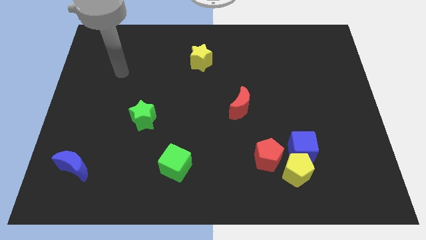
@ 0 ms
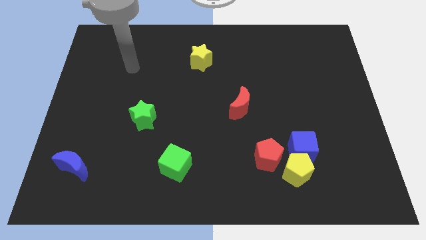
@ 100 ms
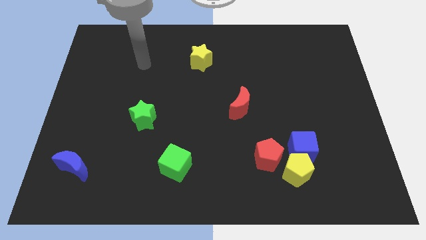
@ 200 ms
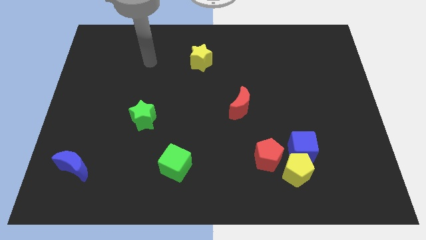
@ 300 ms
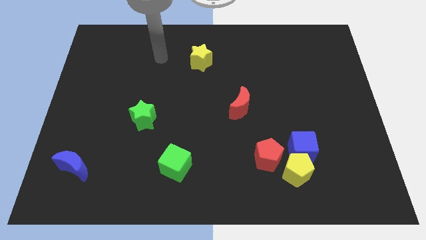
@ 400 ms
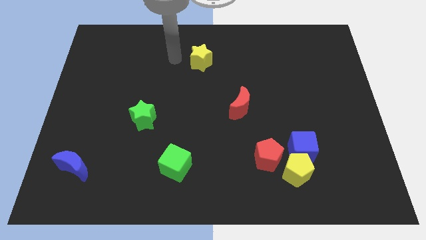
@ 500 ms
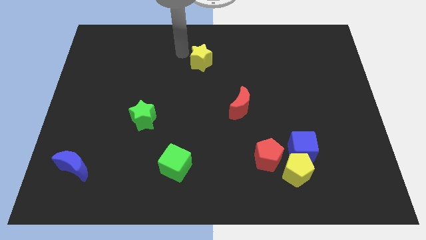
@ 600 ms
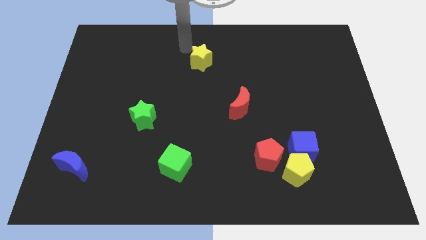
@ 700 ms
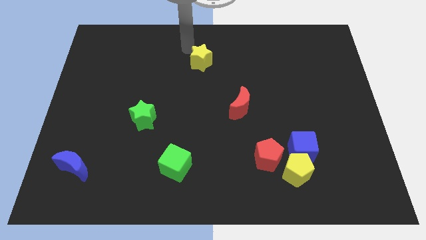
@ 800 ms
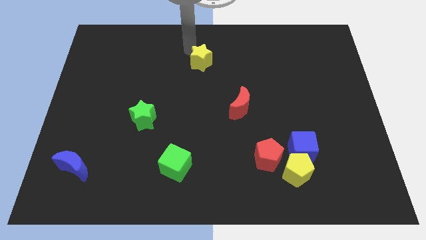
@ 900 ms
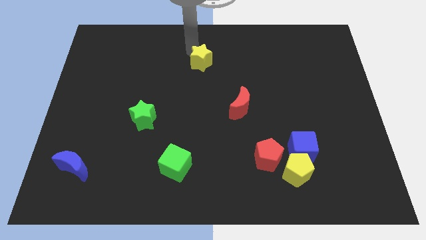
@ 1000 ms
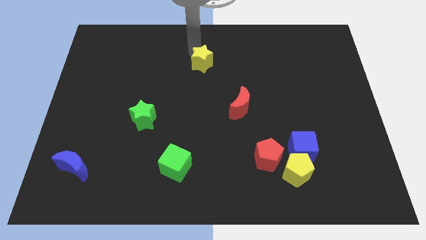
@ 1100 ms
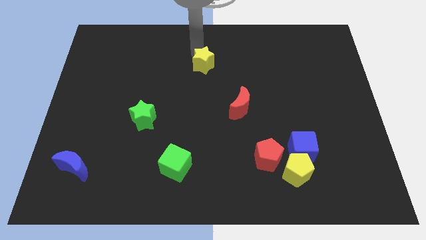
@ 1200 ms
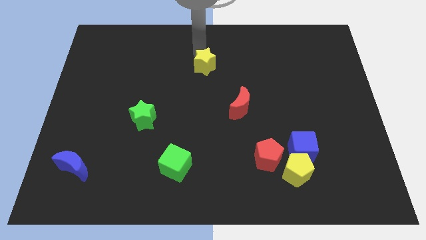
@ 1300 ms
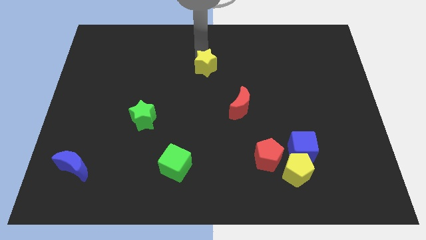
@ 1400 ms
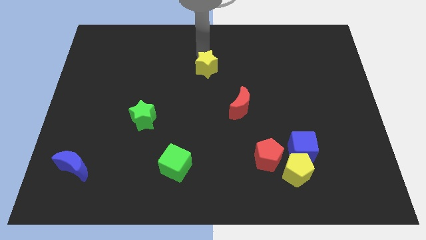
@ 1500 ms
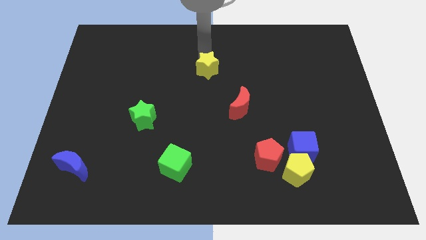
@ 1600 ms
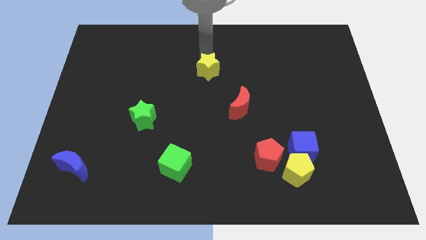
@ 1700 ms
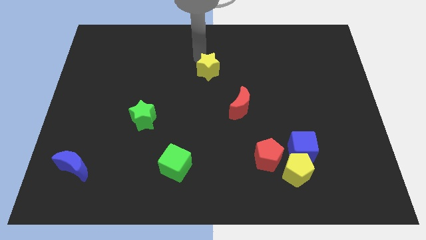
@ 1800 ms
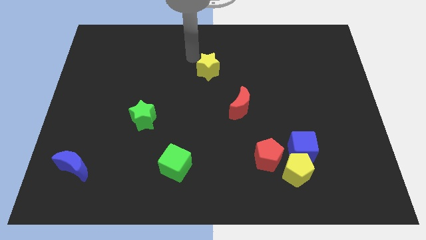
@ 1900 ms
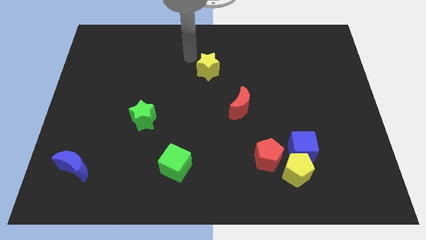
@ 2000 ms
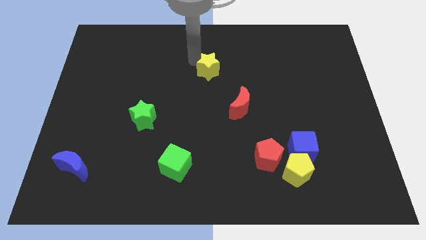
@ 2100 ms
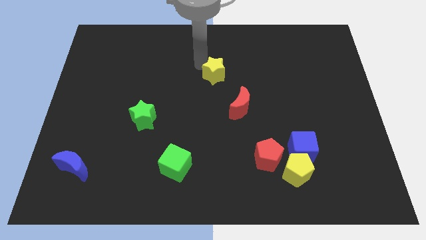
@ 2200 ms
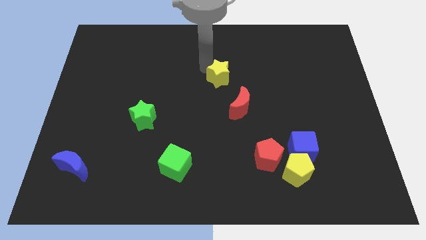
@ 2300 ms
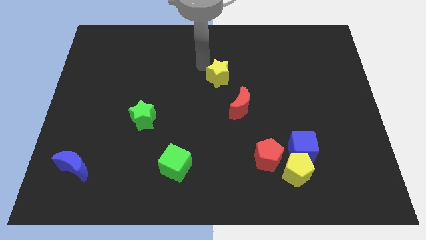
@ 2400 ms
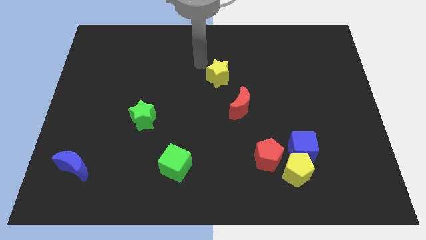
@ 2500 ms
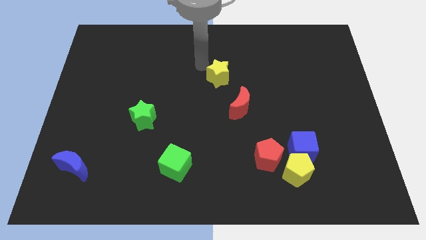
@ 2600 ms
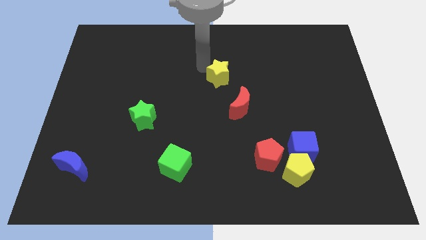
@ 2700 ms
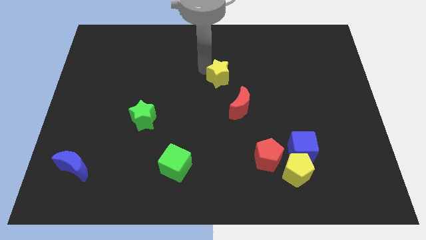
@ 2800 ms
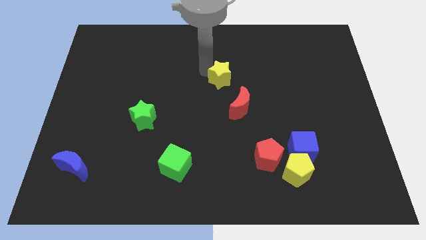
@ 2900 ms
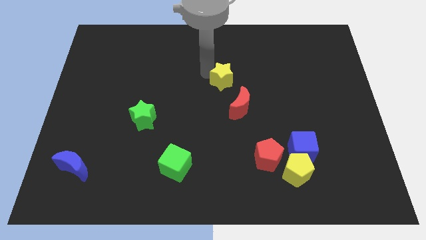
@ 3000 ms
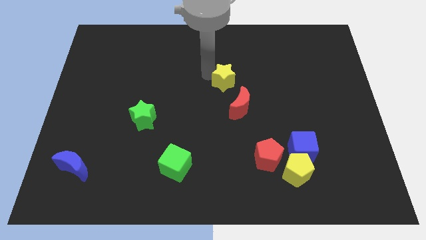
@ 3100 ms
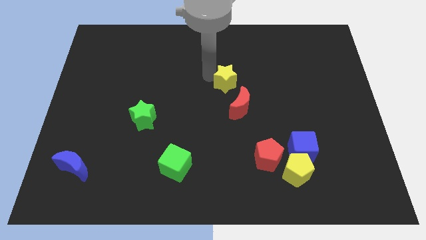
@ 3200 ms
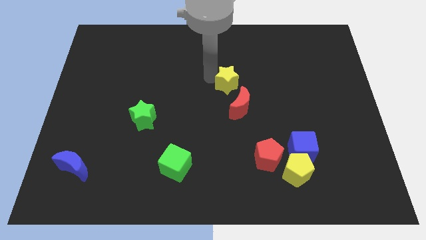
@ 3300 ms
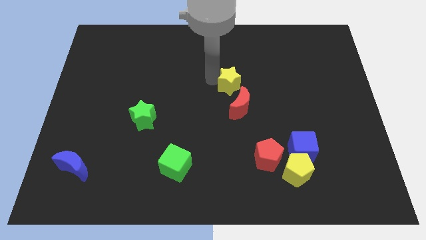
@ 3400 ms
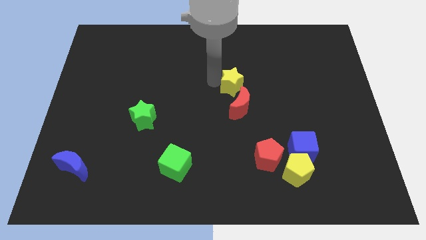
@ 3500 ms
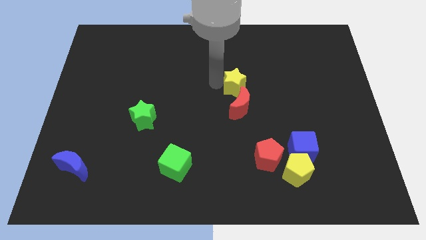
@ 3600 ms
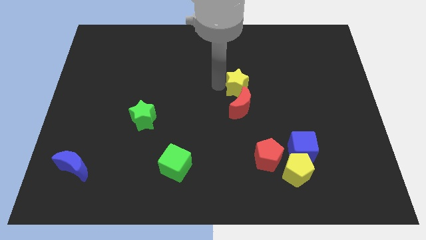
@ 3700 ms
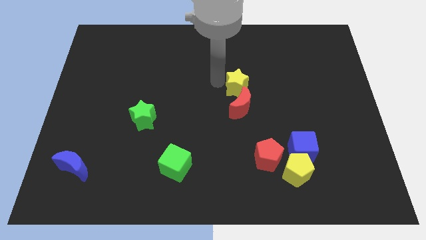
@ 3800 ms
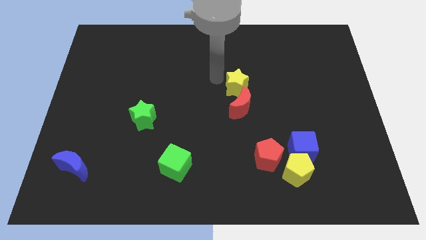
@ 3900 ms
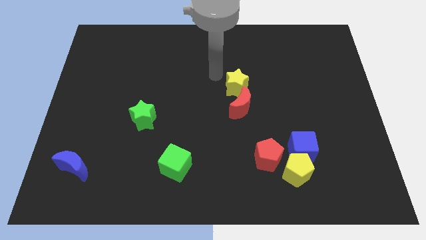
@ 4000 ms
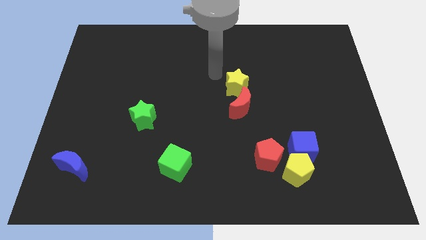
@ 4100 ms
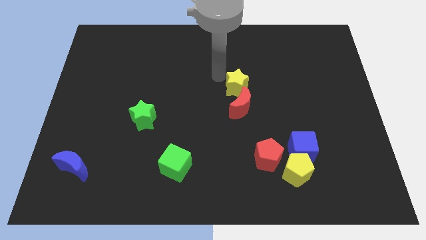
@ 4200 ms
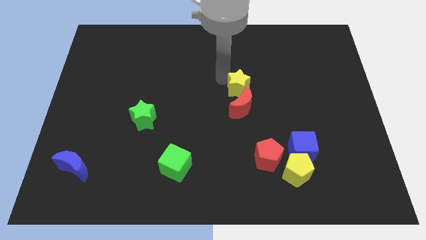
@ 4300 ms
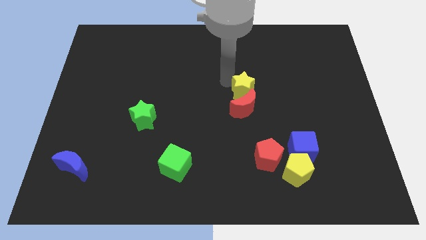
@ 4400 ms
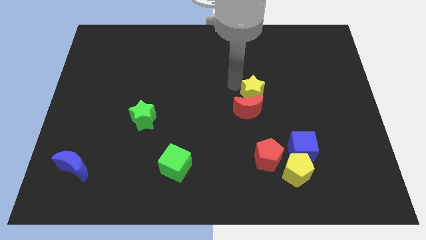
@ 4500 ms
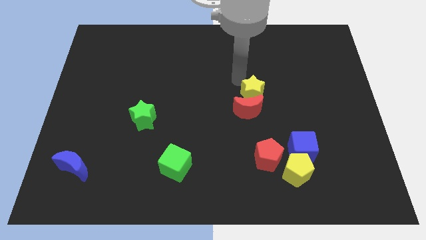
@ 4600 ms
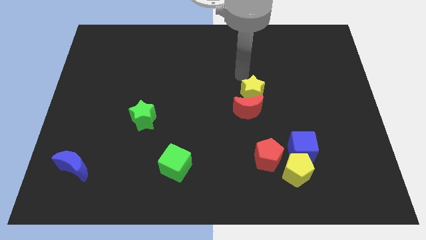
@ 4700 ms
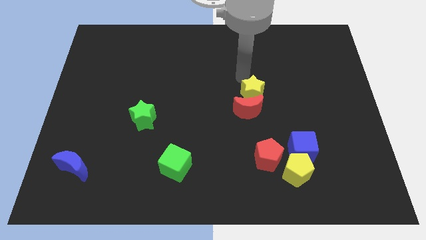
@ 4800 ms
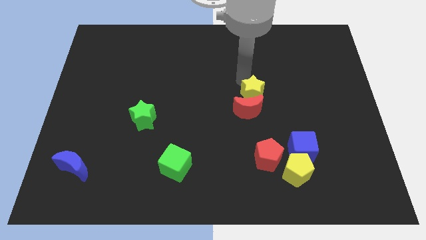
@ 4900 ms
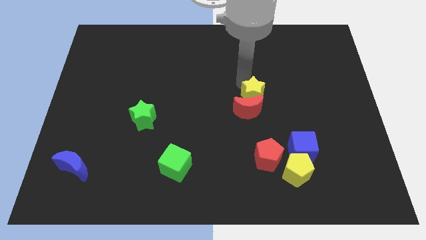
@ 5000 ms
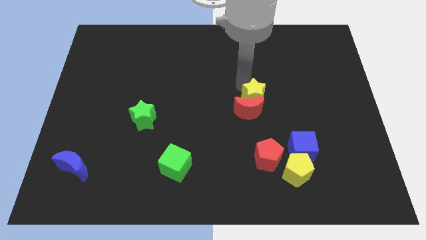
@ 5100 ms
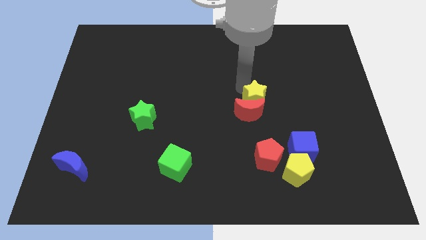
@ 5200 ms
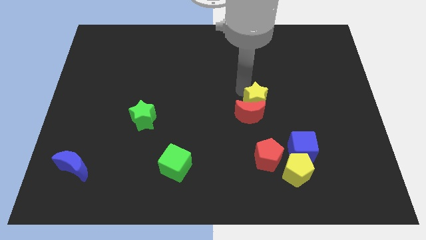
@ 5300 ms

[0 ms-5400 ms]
put the yellow star above the red pentagon
